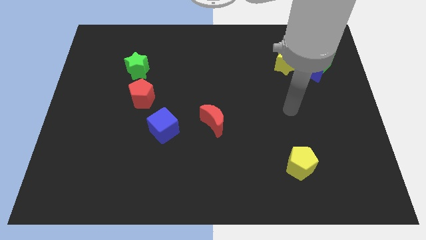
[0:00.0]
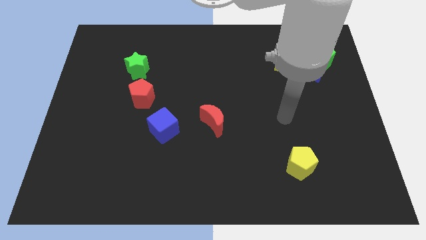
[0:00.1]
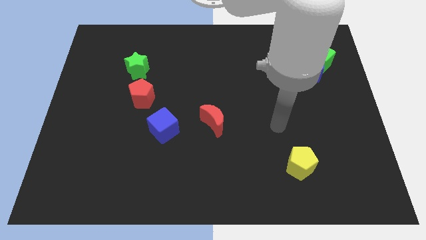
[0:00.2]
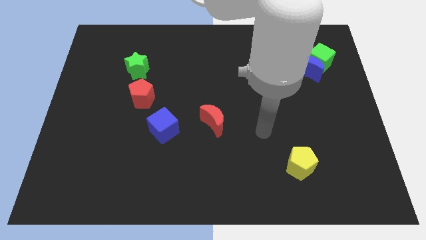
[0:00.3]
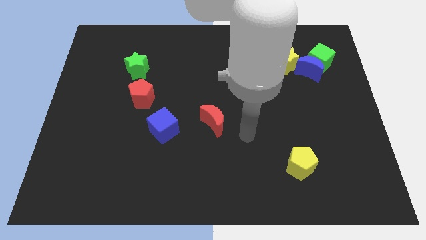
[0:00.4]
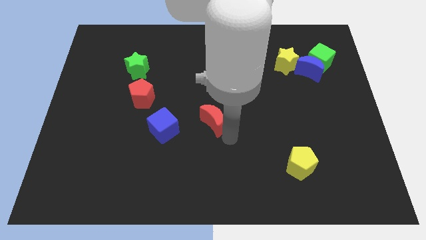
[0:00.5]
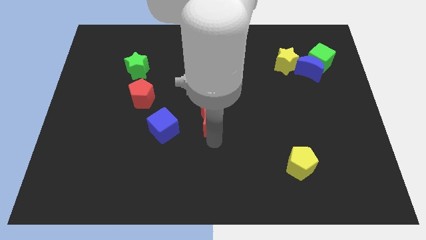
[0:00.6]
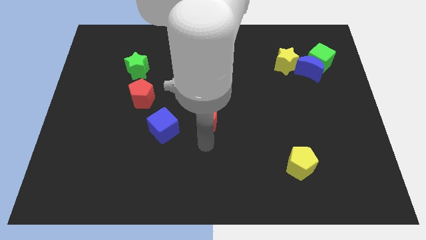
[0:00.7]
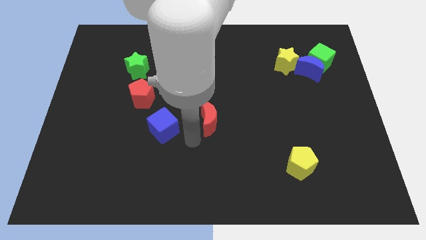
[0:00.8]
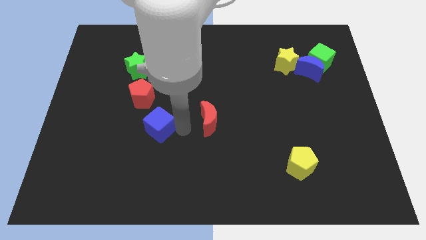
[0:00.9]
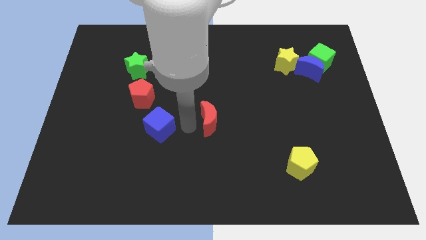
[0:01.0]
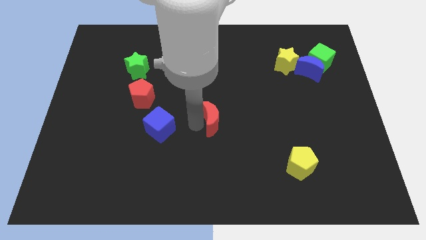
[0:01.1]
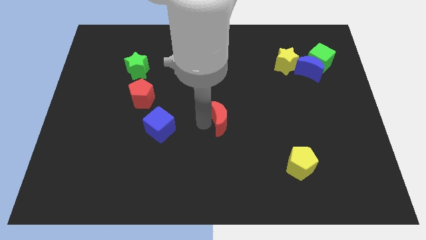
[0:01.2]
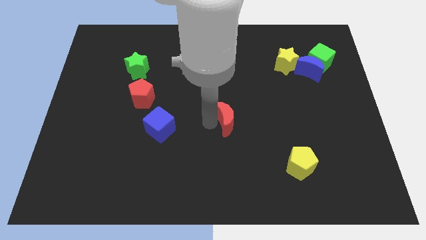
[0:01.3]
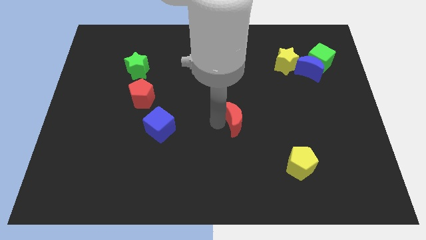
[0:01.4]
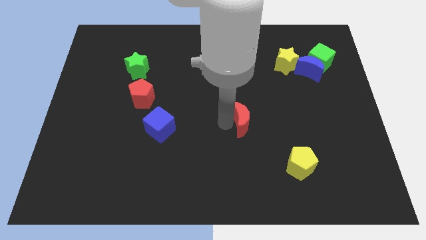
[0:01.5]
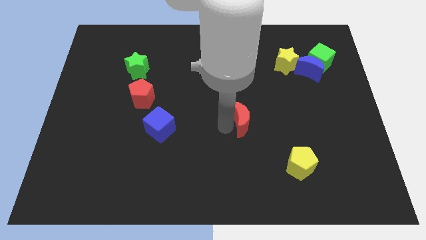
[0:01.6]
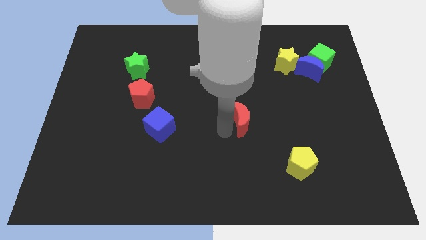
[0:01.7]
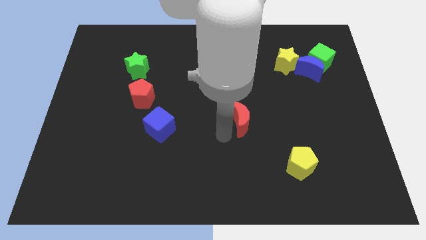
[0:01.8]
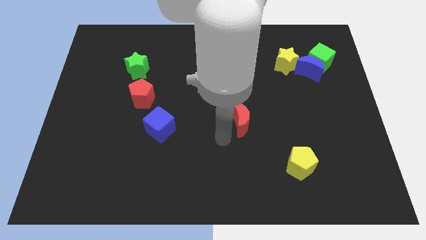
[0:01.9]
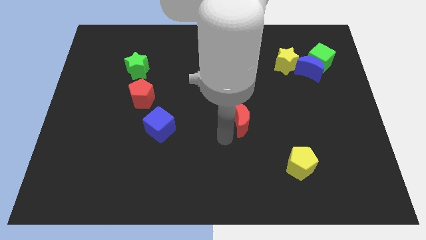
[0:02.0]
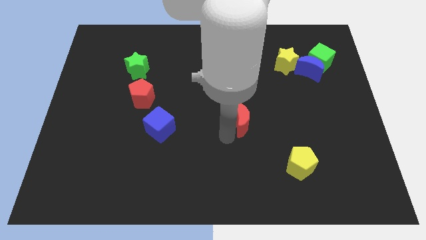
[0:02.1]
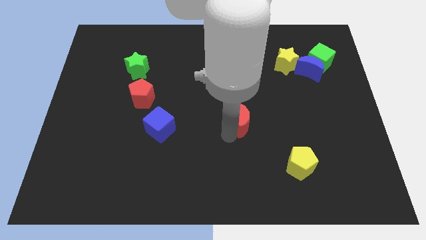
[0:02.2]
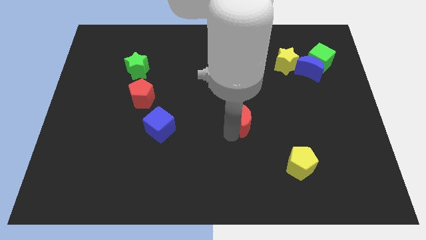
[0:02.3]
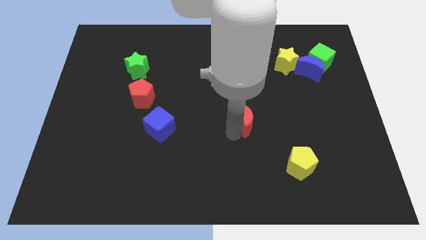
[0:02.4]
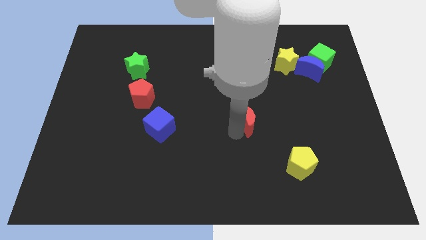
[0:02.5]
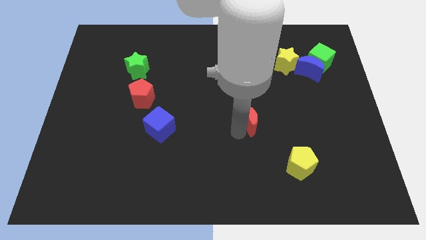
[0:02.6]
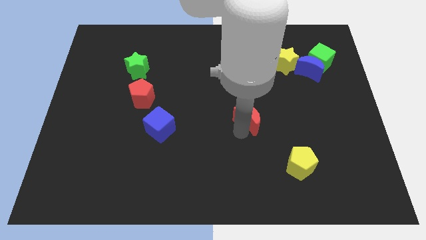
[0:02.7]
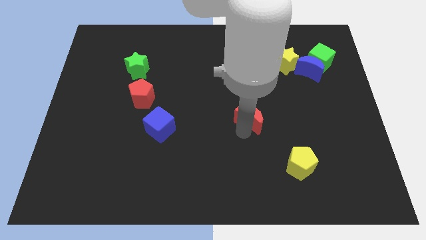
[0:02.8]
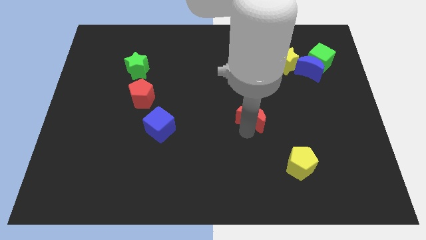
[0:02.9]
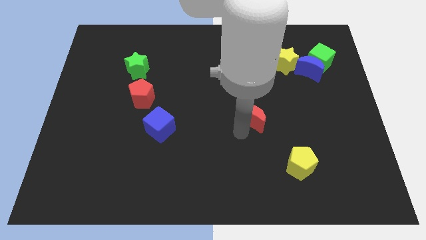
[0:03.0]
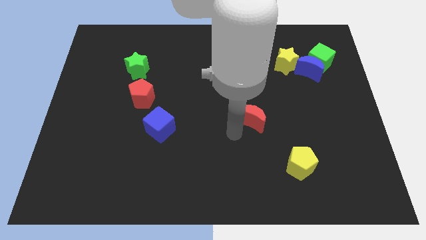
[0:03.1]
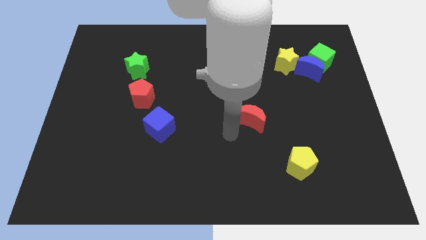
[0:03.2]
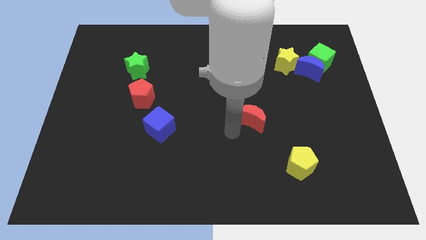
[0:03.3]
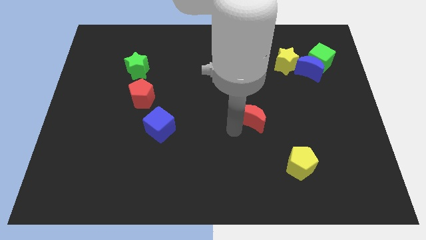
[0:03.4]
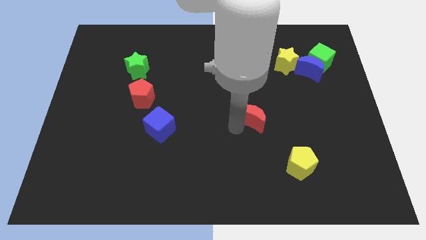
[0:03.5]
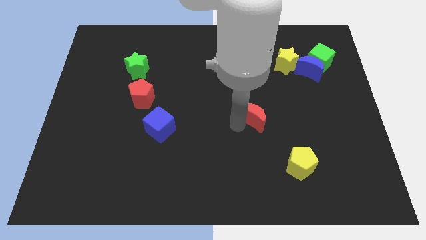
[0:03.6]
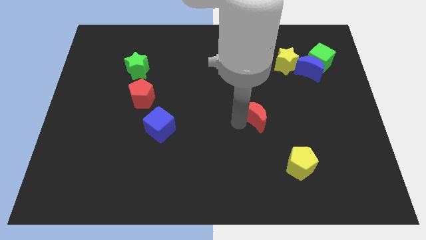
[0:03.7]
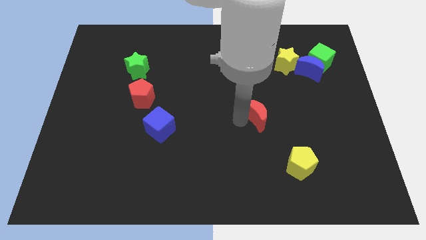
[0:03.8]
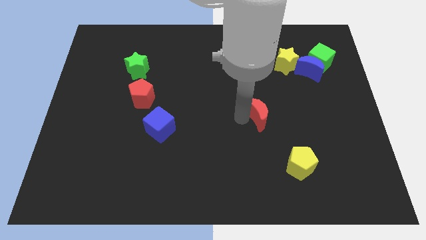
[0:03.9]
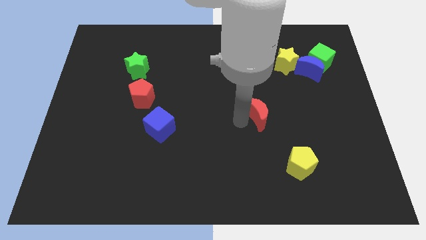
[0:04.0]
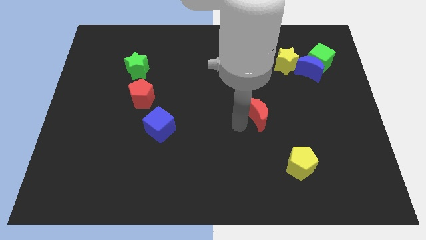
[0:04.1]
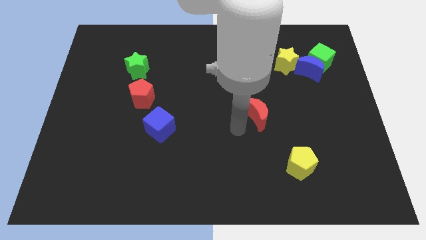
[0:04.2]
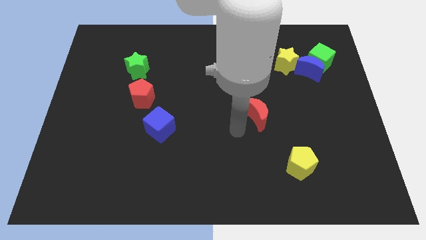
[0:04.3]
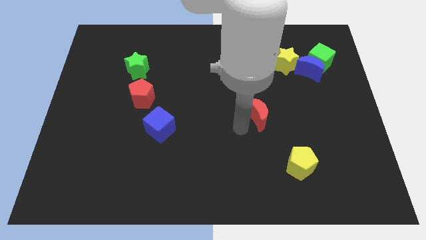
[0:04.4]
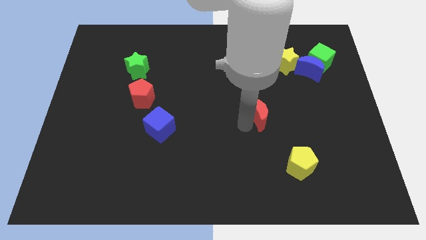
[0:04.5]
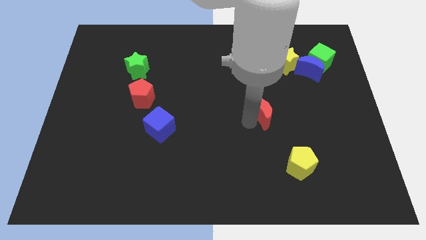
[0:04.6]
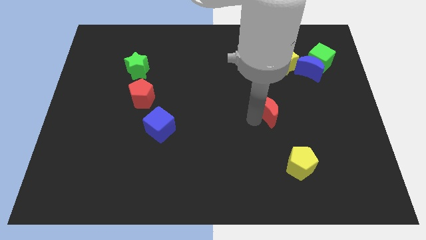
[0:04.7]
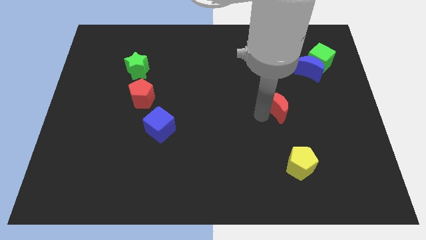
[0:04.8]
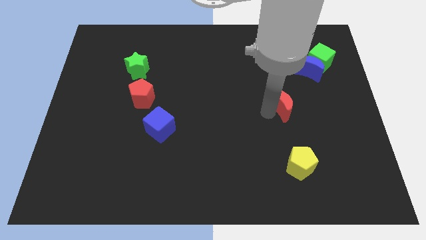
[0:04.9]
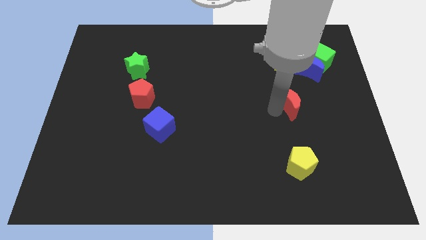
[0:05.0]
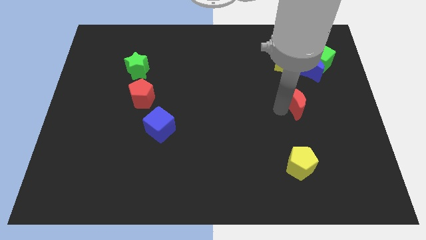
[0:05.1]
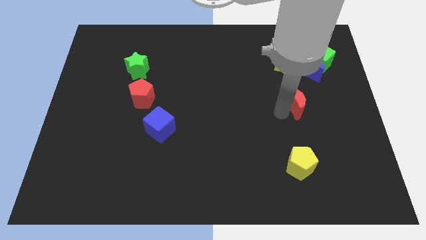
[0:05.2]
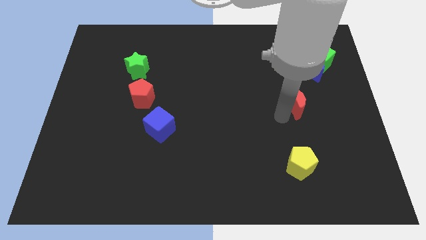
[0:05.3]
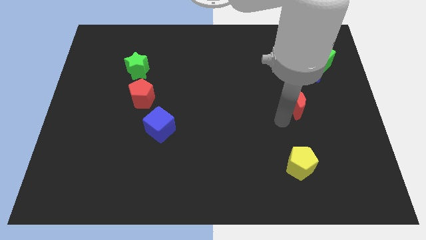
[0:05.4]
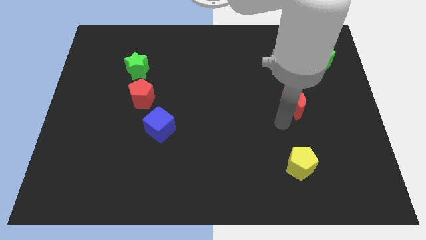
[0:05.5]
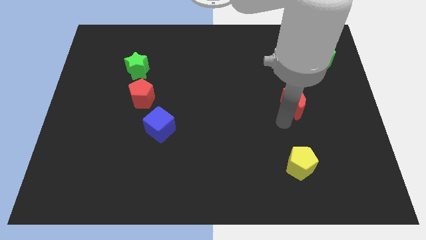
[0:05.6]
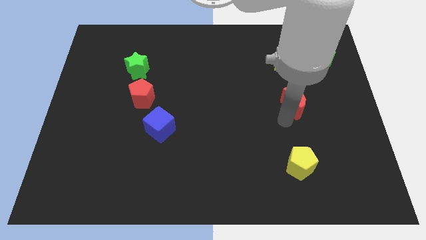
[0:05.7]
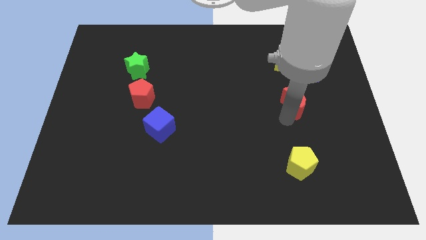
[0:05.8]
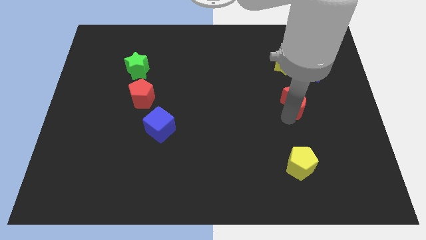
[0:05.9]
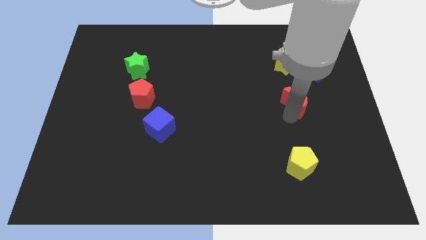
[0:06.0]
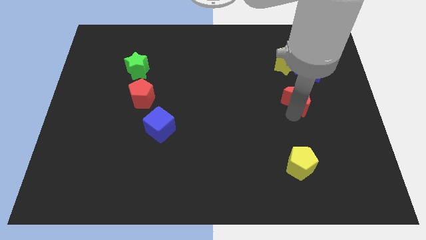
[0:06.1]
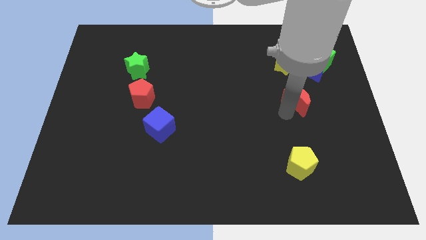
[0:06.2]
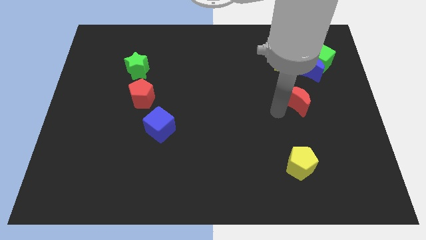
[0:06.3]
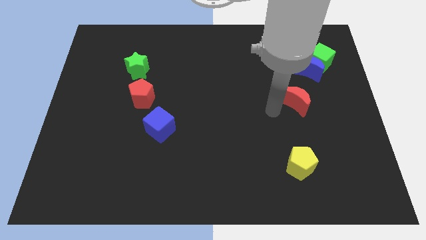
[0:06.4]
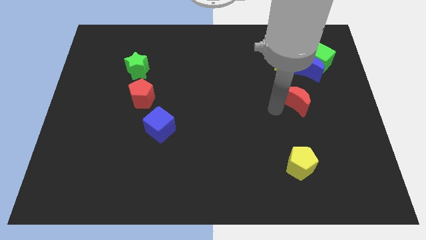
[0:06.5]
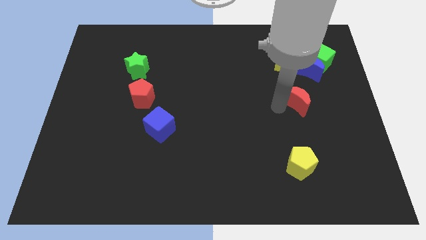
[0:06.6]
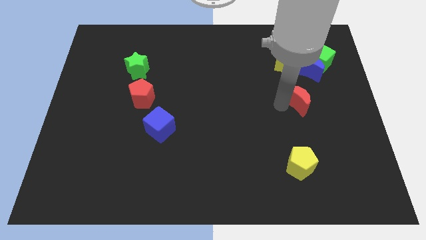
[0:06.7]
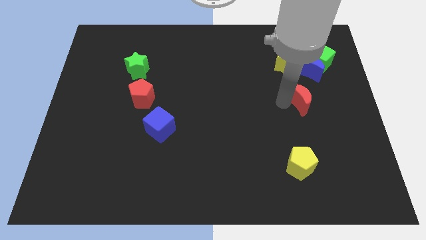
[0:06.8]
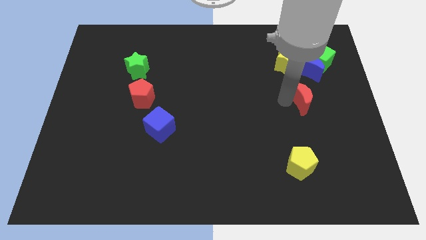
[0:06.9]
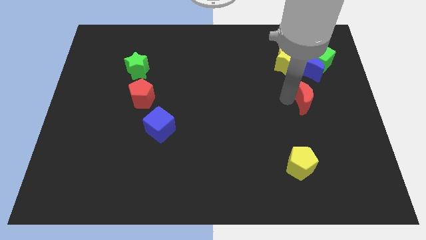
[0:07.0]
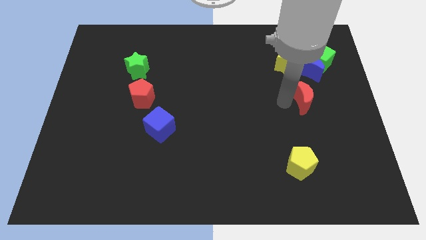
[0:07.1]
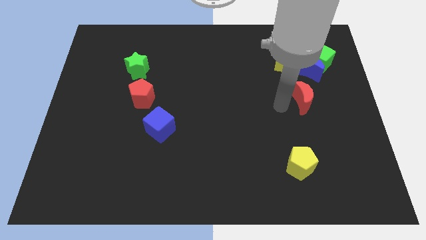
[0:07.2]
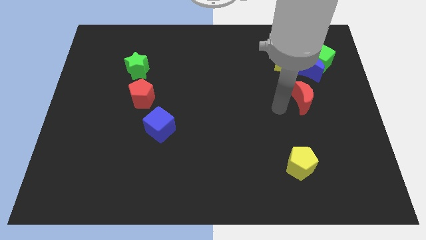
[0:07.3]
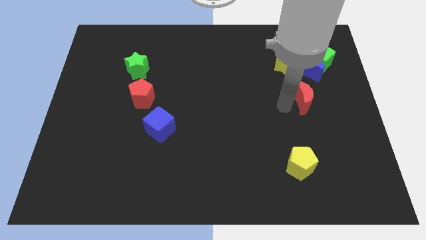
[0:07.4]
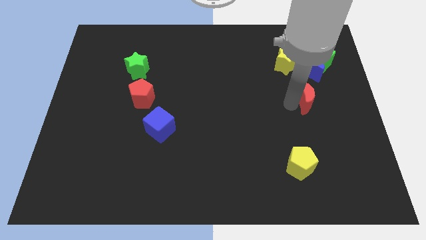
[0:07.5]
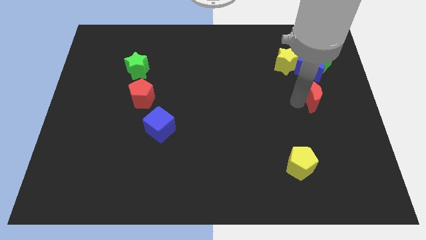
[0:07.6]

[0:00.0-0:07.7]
put the red moon to the bottom of the green cube
